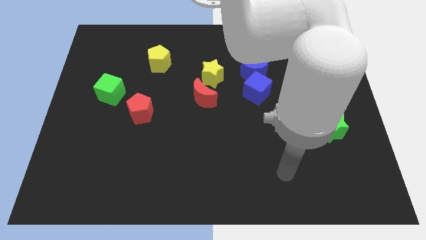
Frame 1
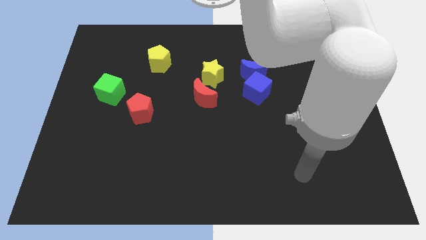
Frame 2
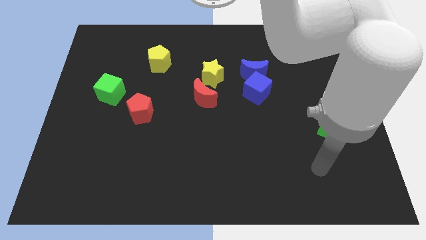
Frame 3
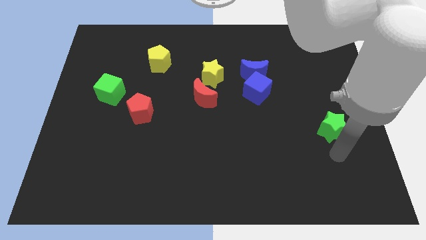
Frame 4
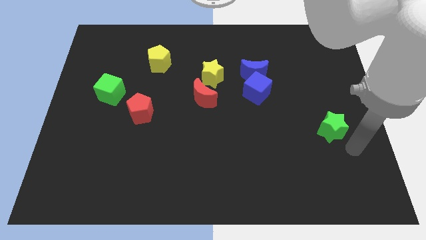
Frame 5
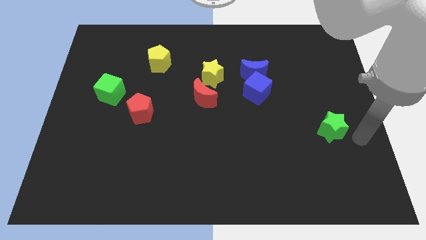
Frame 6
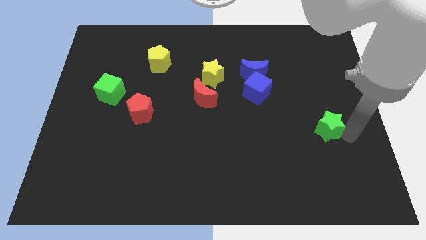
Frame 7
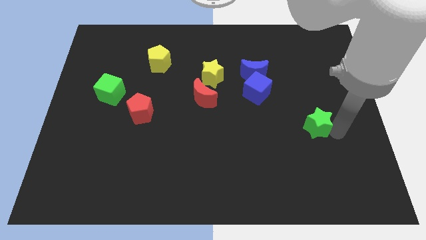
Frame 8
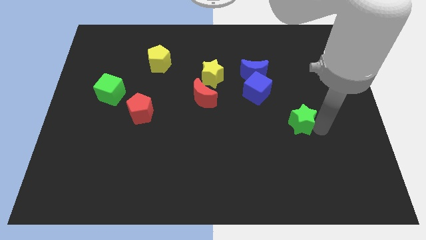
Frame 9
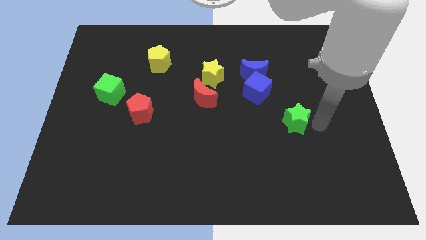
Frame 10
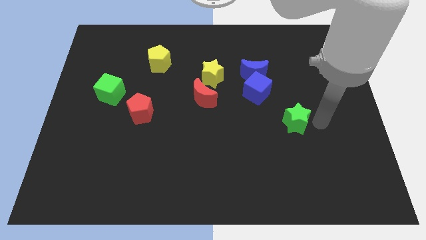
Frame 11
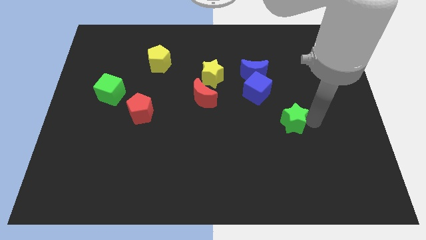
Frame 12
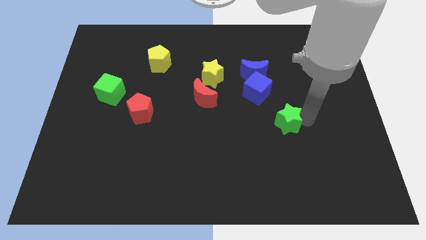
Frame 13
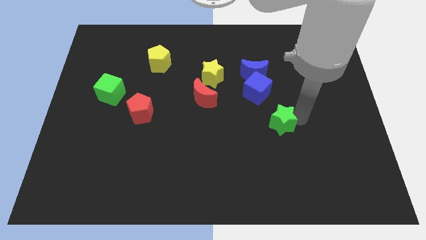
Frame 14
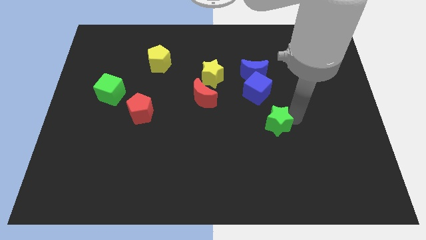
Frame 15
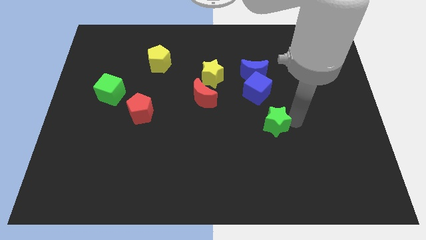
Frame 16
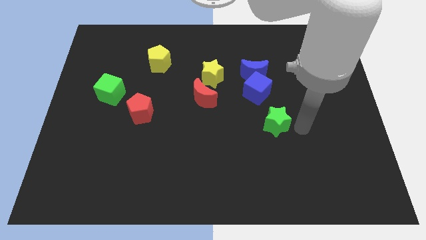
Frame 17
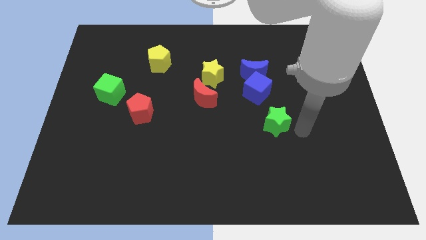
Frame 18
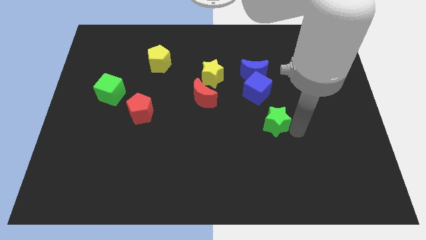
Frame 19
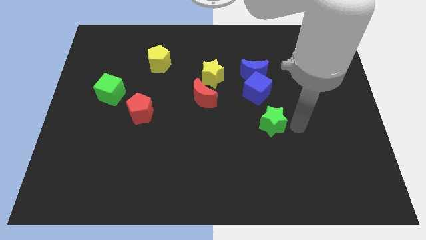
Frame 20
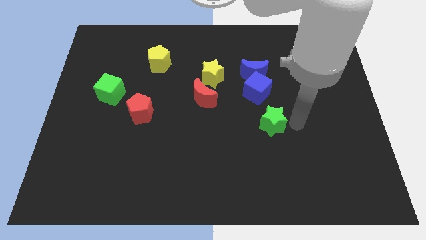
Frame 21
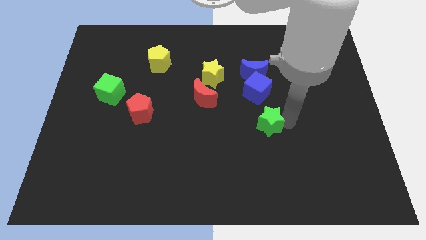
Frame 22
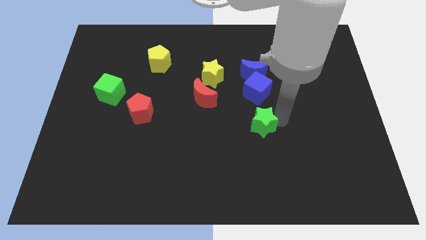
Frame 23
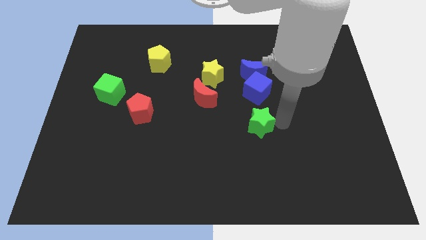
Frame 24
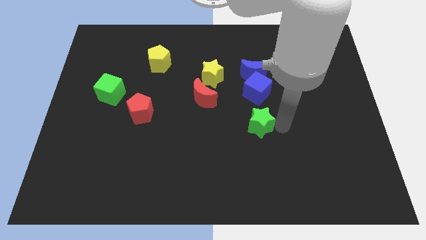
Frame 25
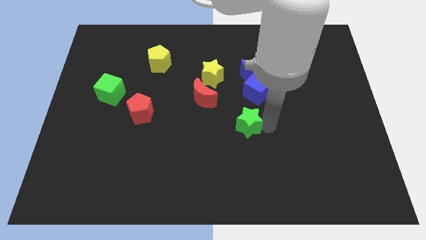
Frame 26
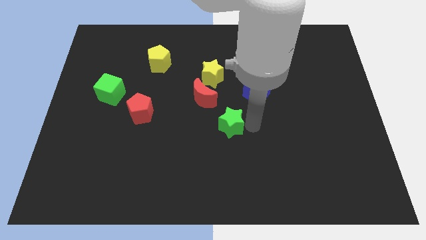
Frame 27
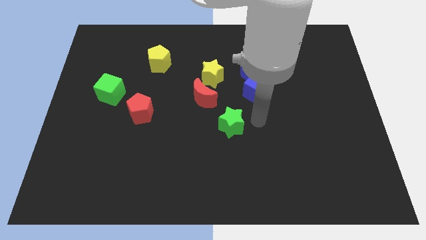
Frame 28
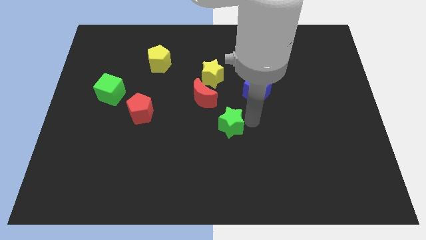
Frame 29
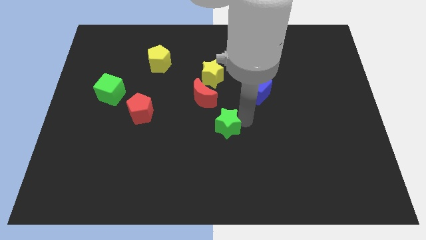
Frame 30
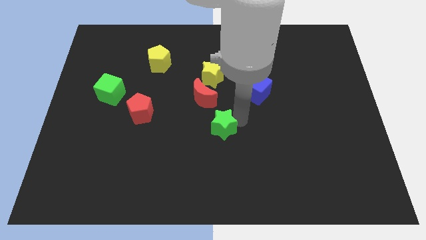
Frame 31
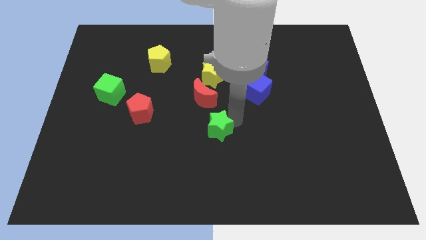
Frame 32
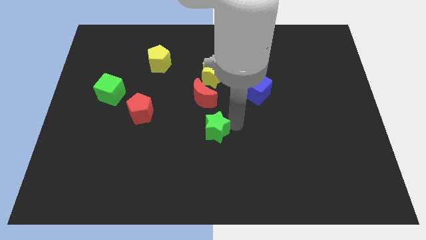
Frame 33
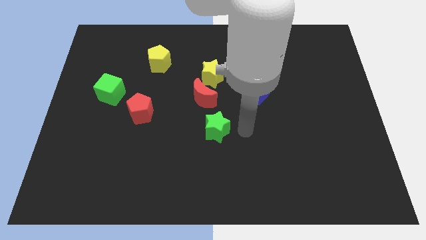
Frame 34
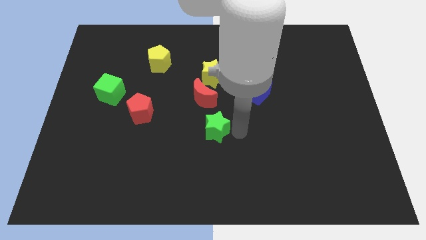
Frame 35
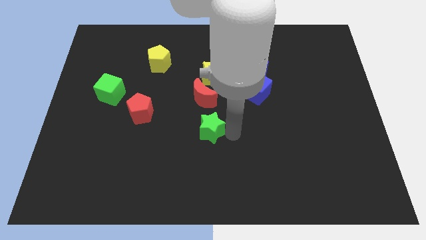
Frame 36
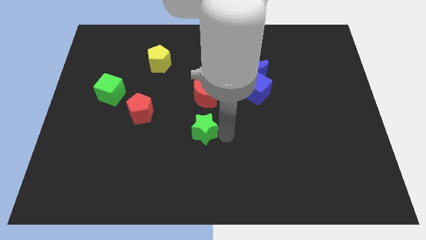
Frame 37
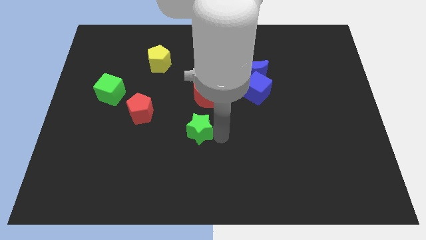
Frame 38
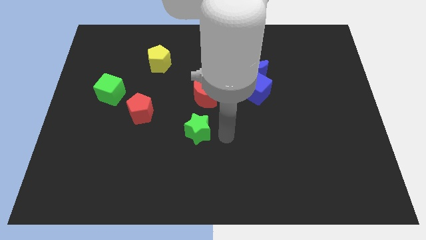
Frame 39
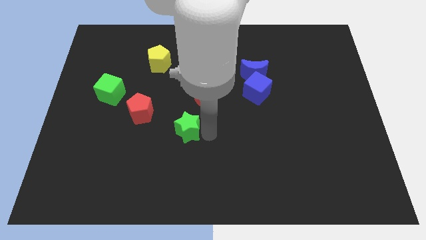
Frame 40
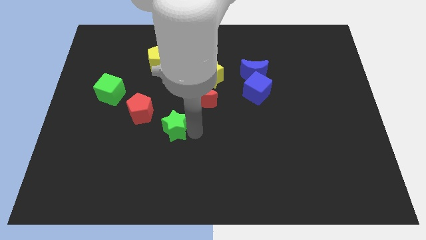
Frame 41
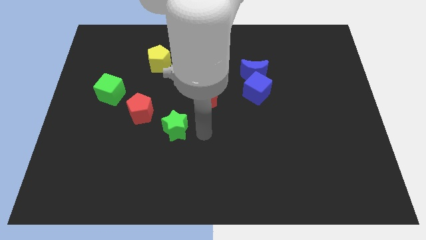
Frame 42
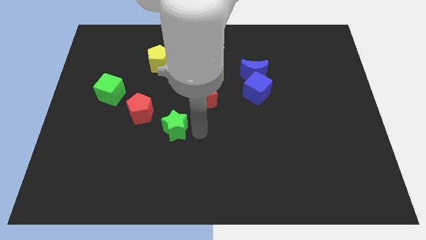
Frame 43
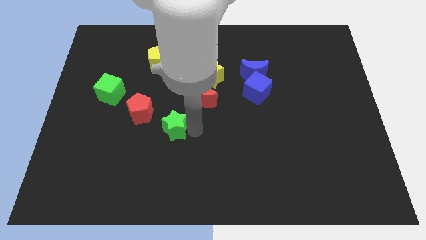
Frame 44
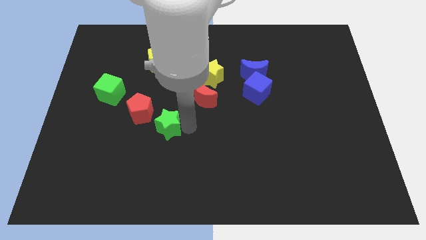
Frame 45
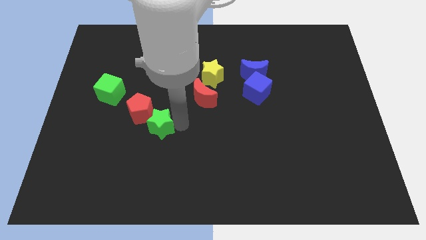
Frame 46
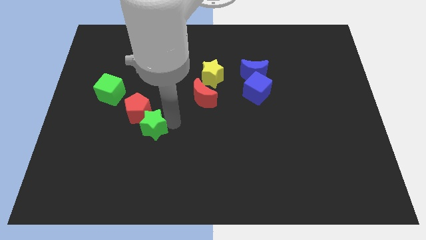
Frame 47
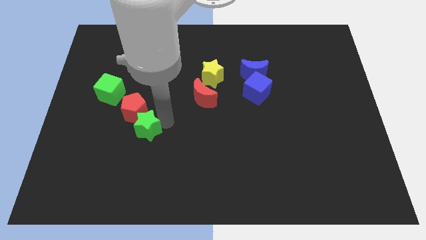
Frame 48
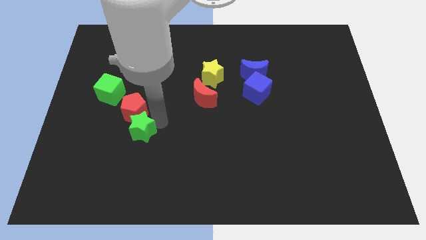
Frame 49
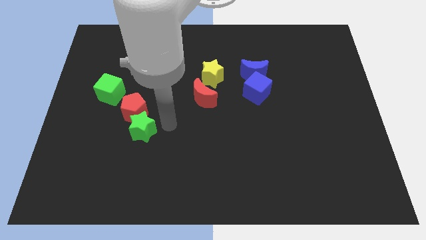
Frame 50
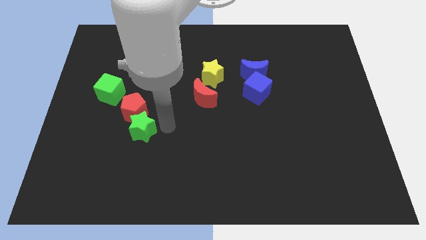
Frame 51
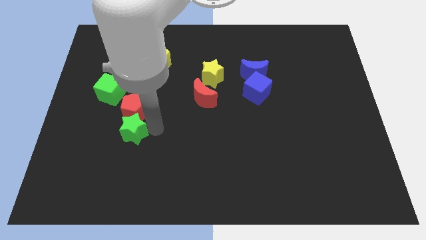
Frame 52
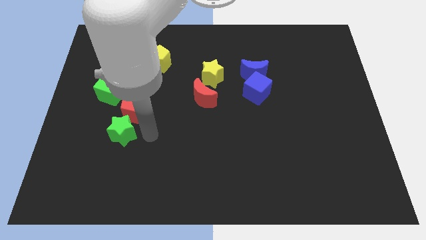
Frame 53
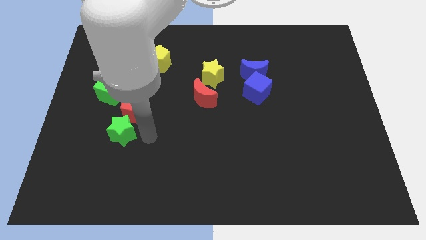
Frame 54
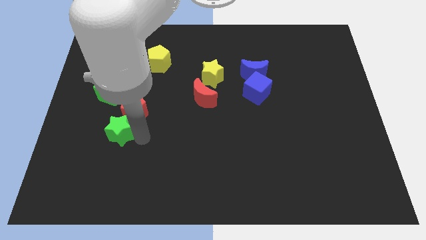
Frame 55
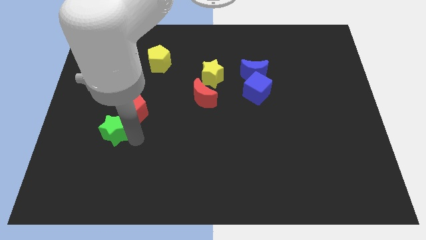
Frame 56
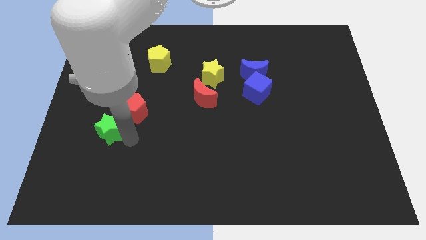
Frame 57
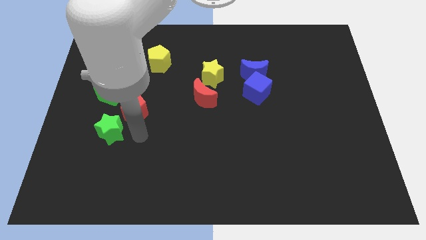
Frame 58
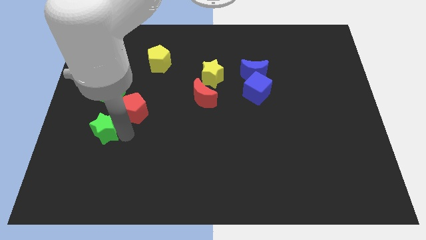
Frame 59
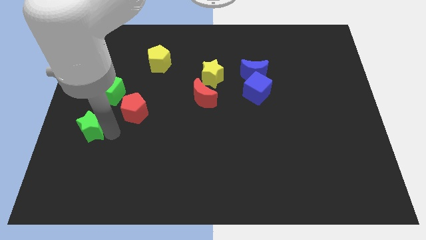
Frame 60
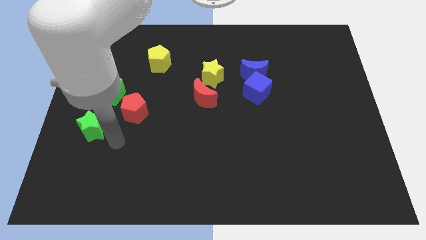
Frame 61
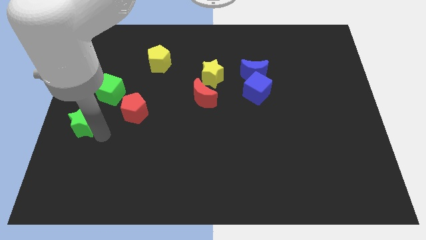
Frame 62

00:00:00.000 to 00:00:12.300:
slide the green star to the left side of the board

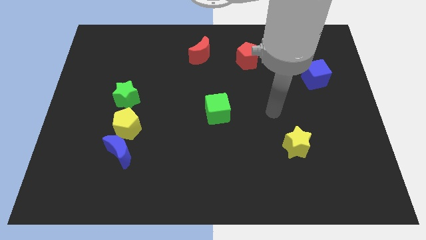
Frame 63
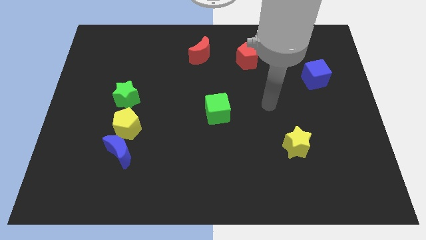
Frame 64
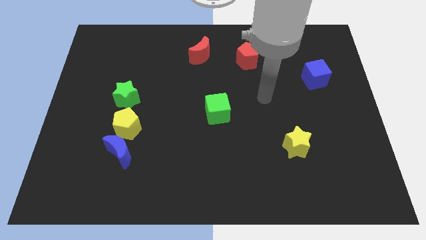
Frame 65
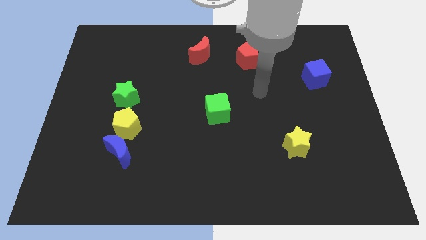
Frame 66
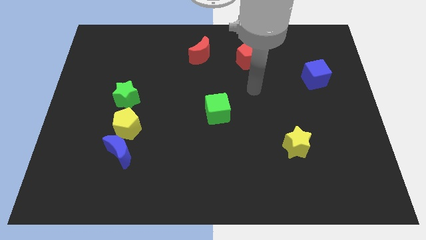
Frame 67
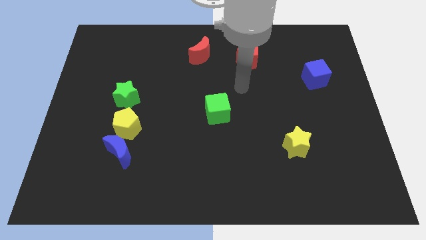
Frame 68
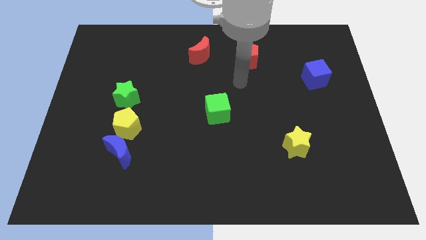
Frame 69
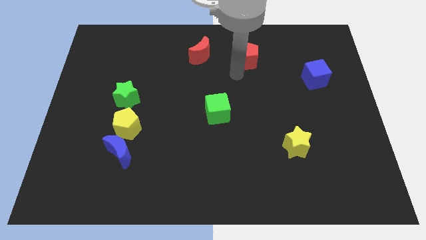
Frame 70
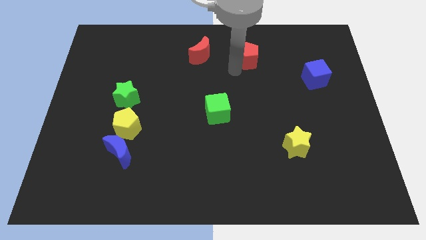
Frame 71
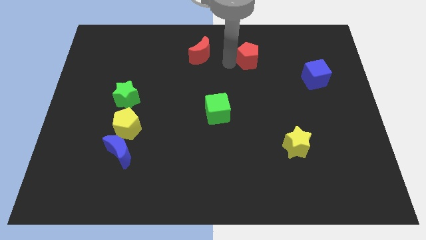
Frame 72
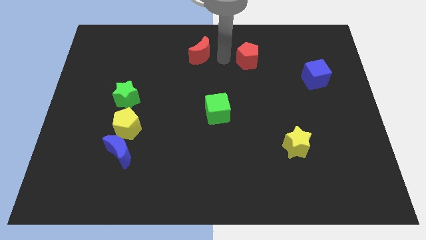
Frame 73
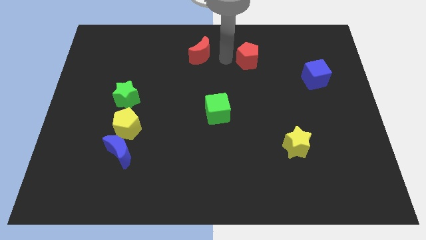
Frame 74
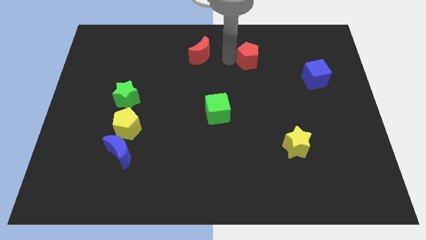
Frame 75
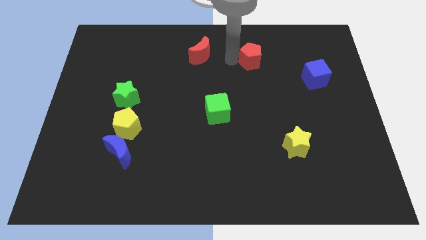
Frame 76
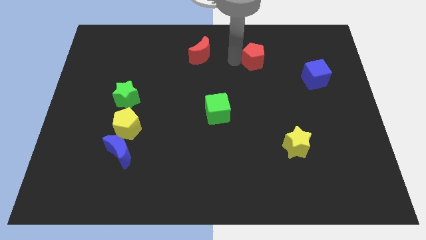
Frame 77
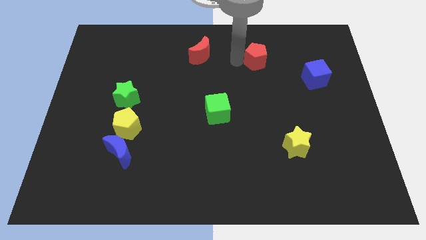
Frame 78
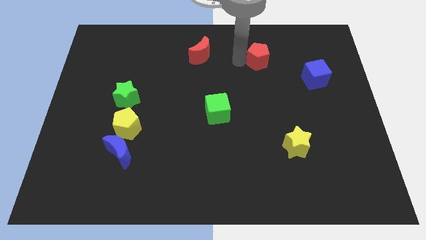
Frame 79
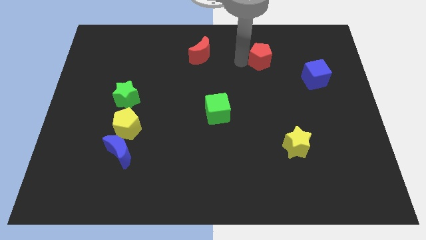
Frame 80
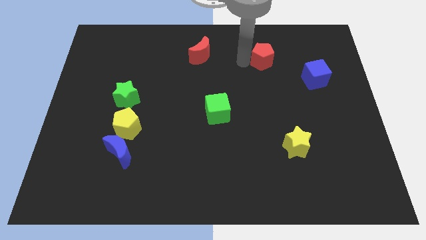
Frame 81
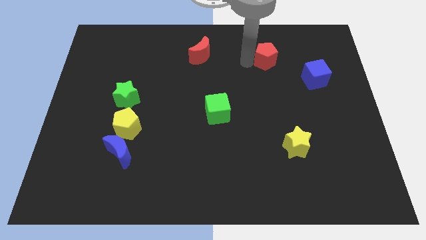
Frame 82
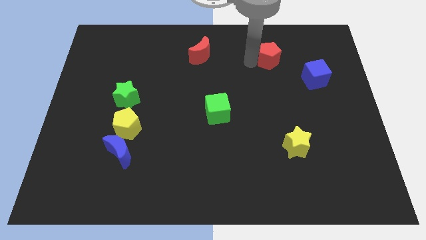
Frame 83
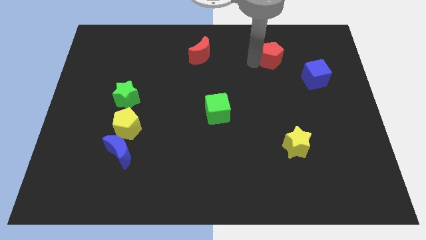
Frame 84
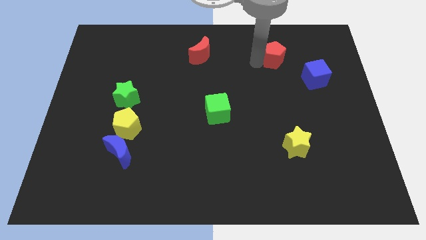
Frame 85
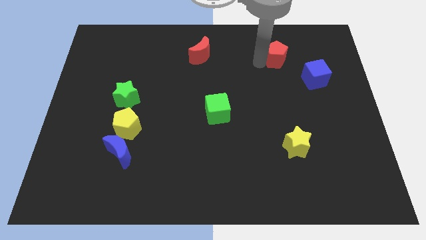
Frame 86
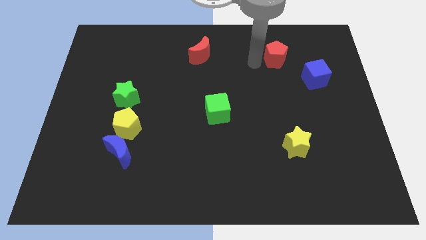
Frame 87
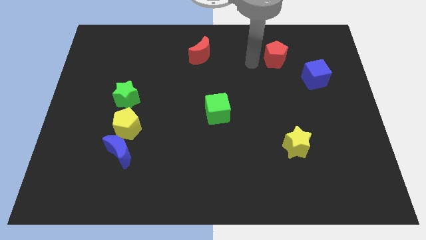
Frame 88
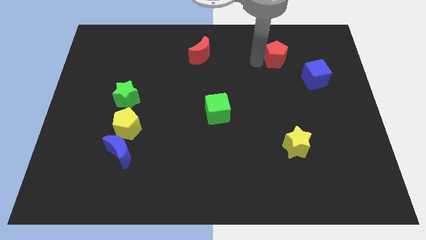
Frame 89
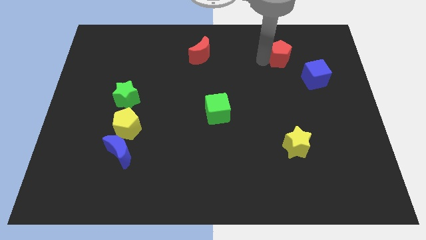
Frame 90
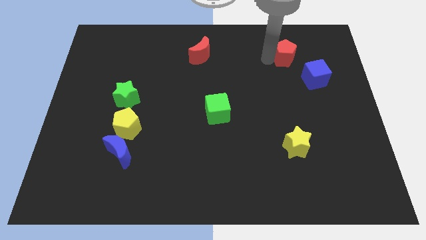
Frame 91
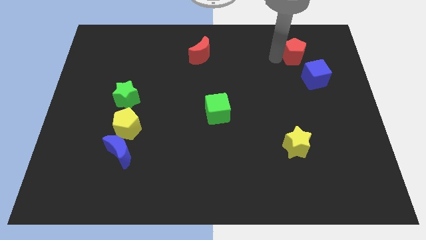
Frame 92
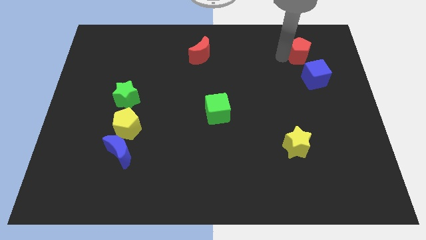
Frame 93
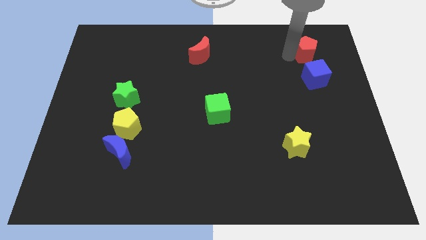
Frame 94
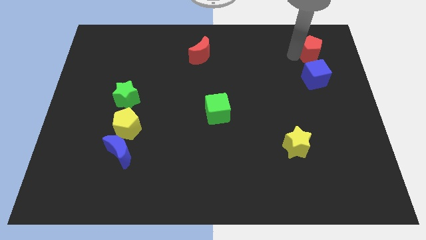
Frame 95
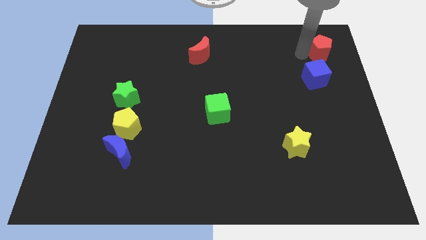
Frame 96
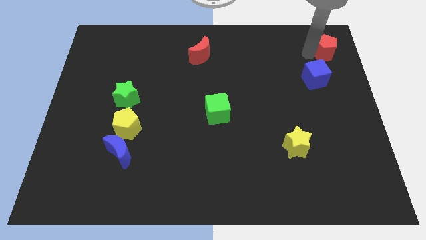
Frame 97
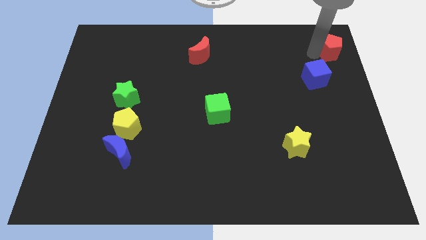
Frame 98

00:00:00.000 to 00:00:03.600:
push the red pentagon to the top right
